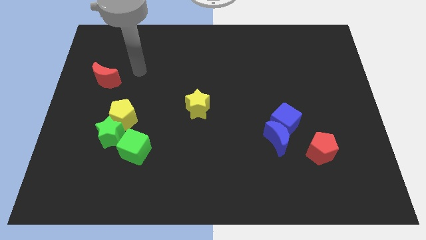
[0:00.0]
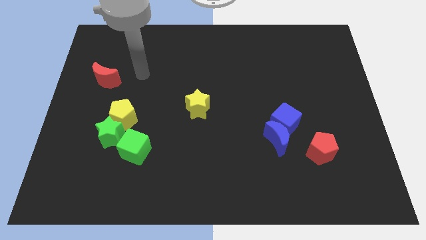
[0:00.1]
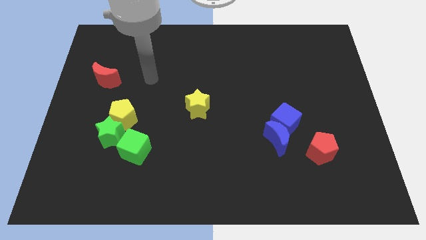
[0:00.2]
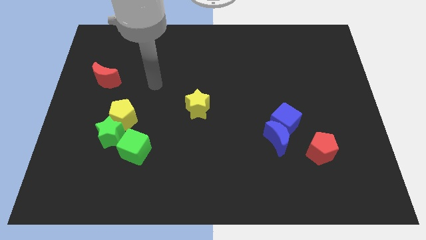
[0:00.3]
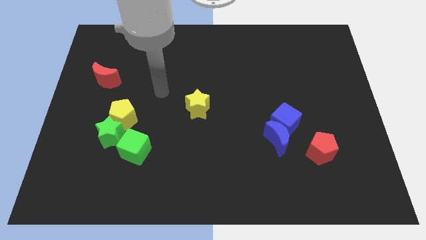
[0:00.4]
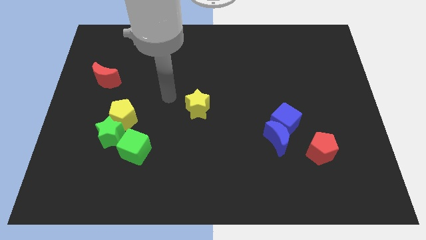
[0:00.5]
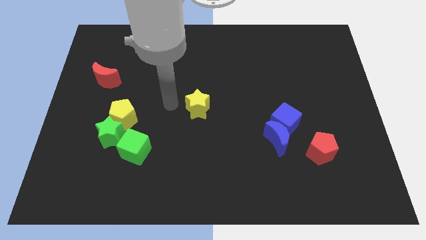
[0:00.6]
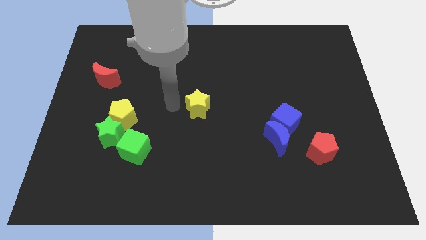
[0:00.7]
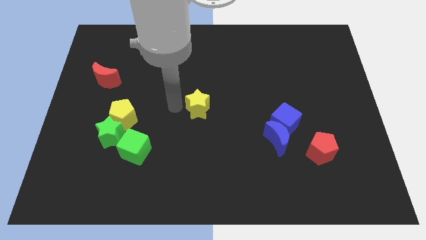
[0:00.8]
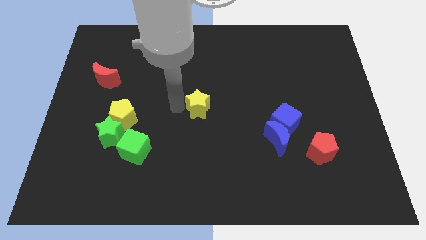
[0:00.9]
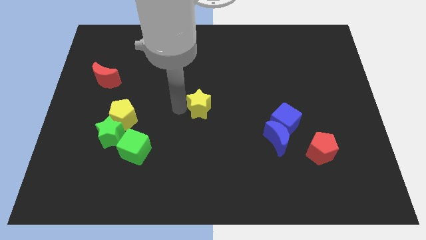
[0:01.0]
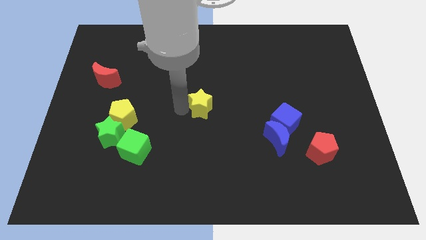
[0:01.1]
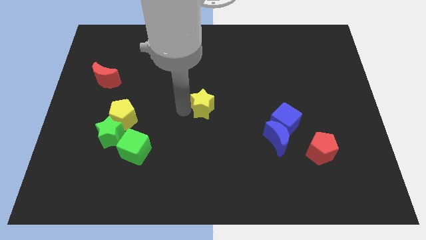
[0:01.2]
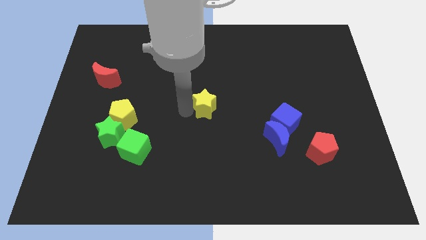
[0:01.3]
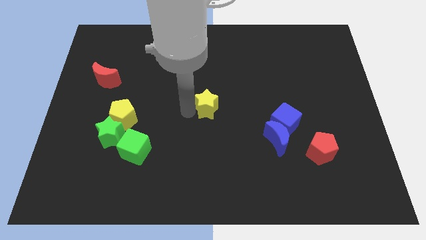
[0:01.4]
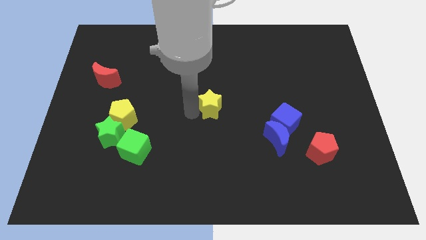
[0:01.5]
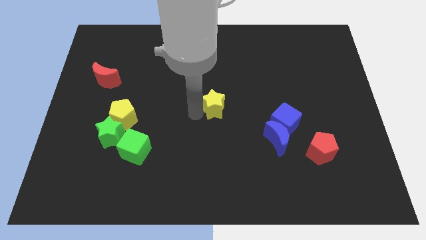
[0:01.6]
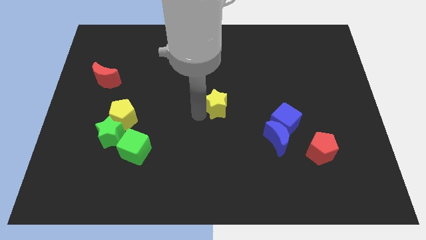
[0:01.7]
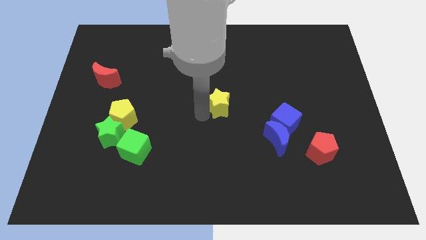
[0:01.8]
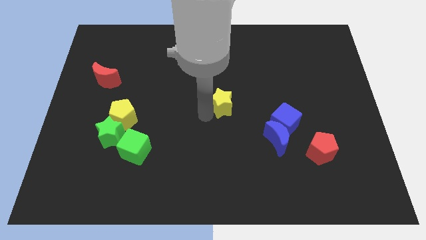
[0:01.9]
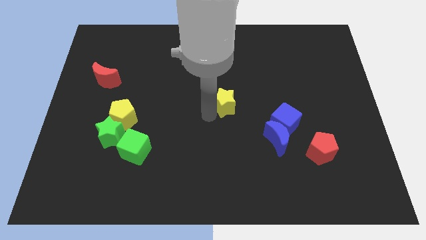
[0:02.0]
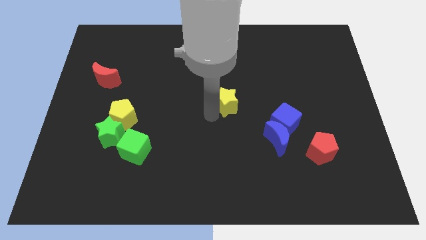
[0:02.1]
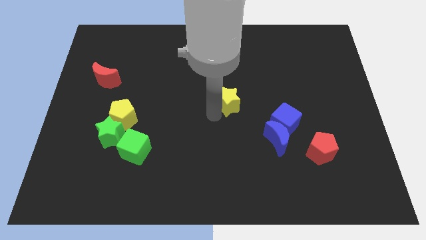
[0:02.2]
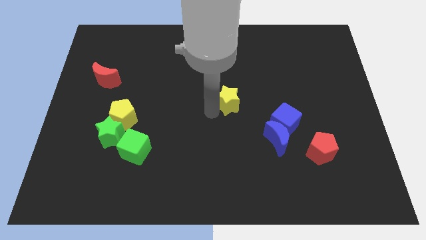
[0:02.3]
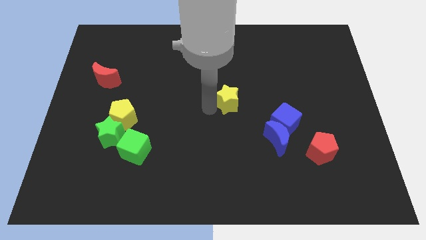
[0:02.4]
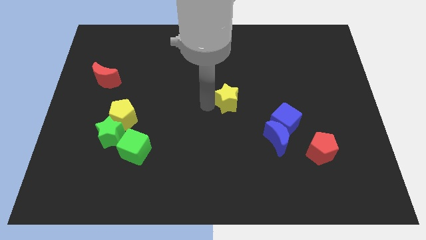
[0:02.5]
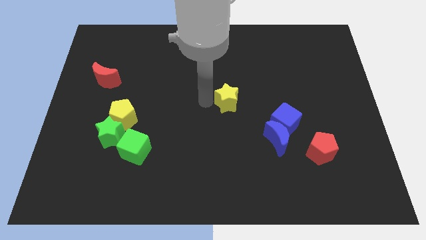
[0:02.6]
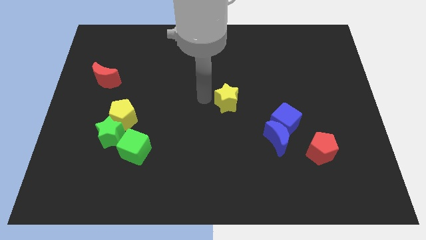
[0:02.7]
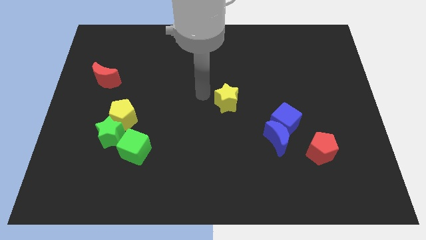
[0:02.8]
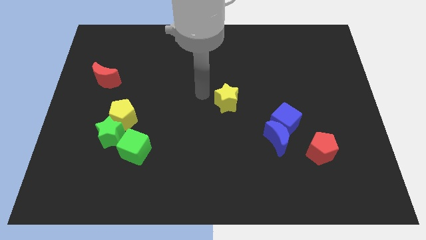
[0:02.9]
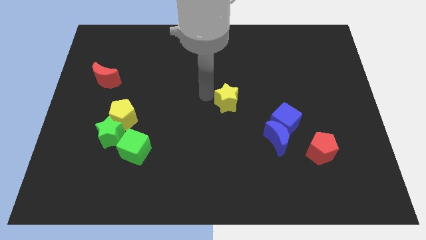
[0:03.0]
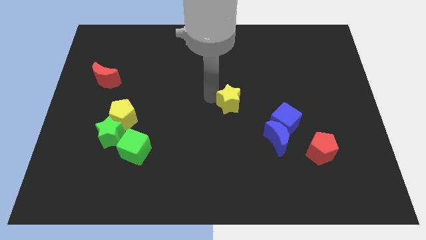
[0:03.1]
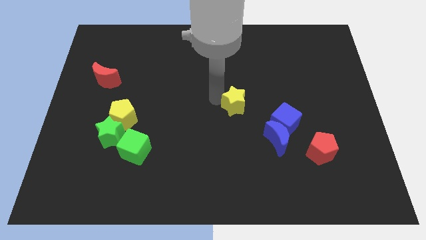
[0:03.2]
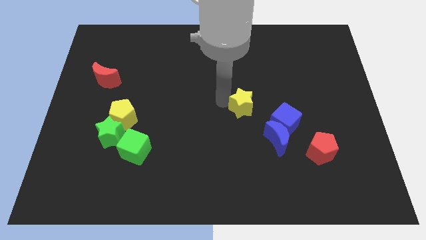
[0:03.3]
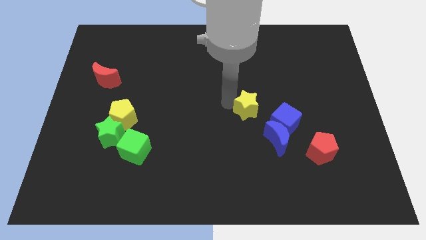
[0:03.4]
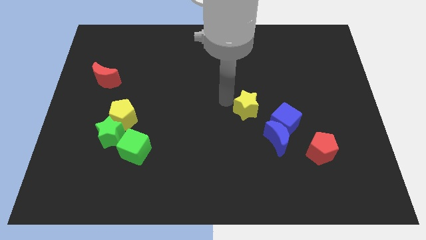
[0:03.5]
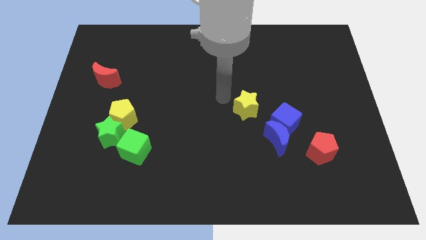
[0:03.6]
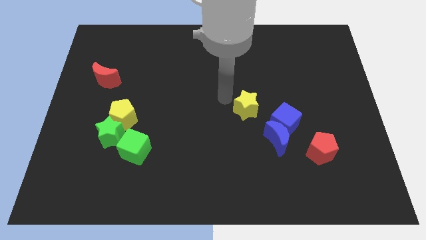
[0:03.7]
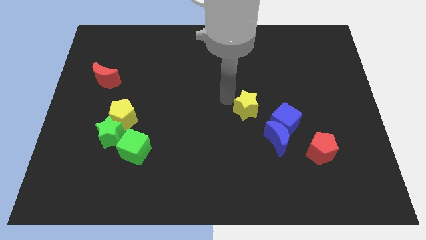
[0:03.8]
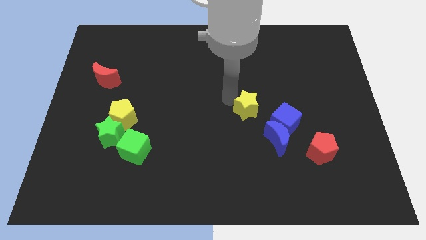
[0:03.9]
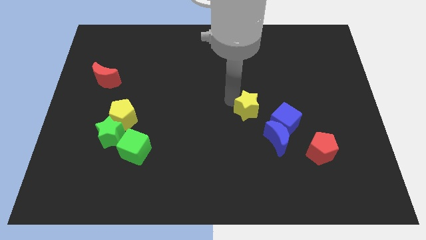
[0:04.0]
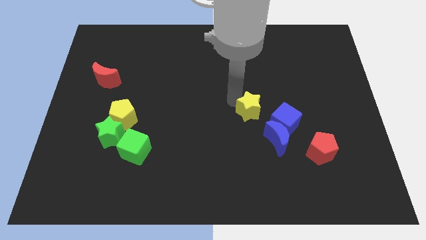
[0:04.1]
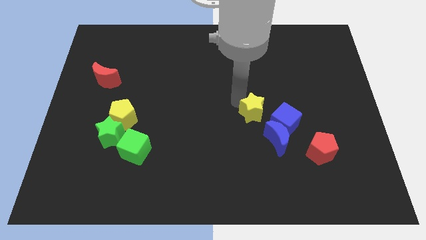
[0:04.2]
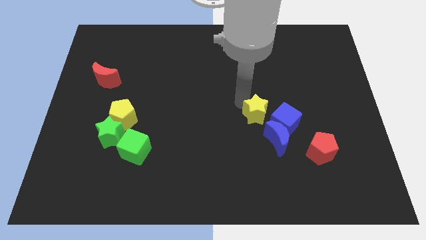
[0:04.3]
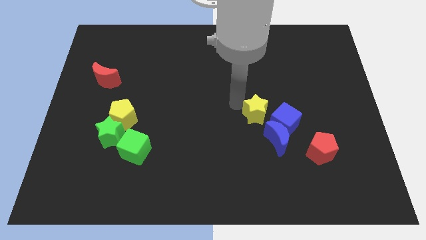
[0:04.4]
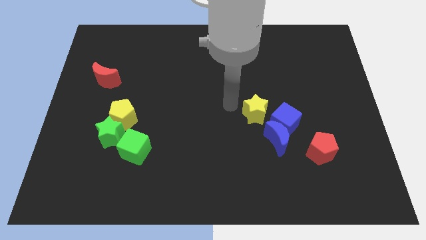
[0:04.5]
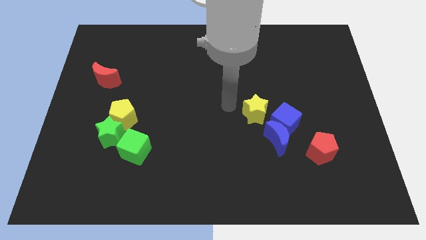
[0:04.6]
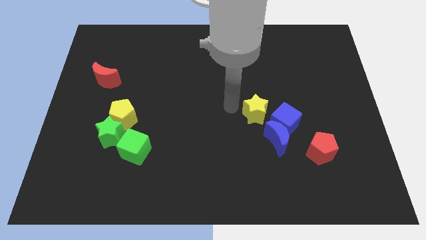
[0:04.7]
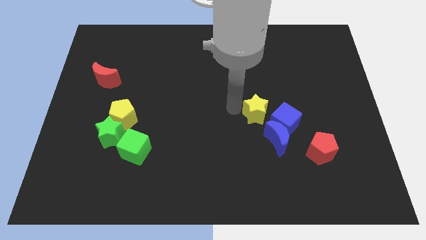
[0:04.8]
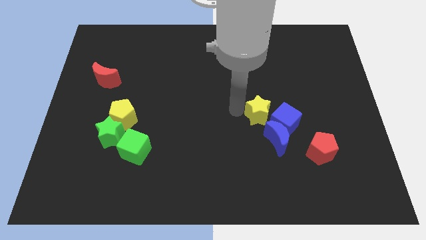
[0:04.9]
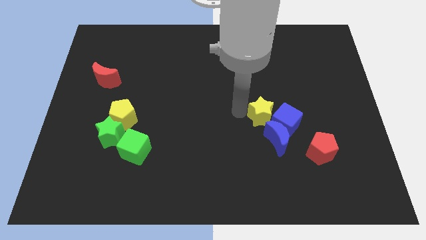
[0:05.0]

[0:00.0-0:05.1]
move the yellow star to the blue cube

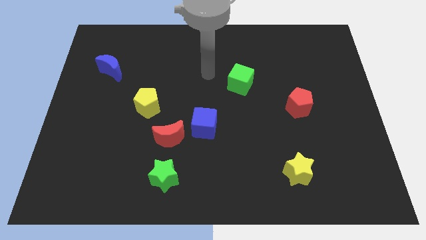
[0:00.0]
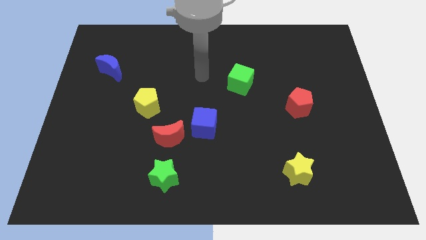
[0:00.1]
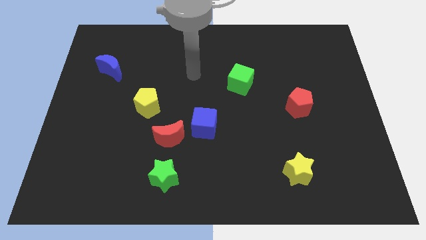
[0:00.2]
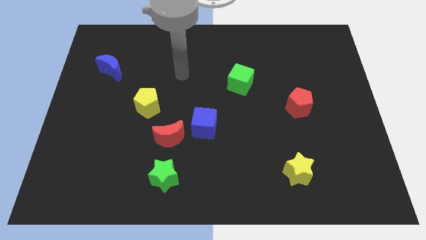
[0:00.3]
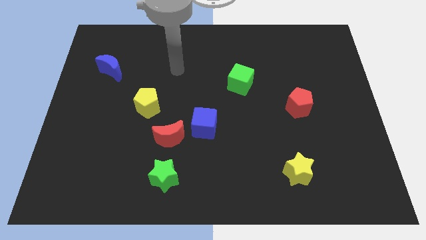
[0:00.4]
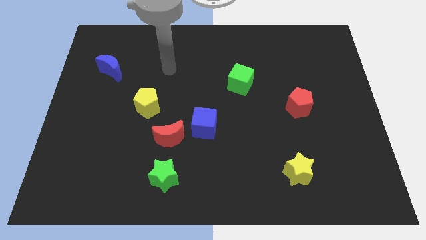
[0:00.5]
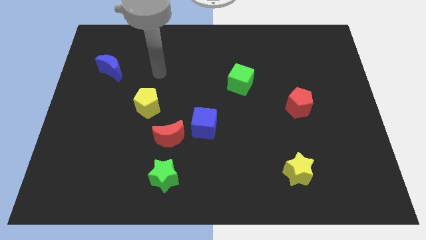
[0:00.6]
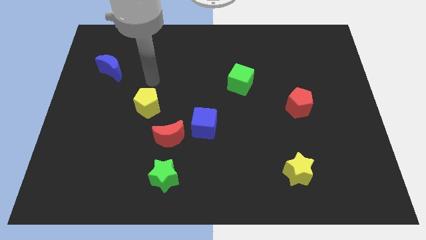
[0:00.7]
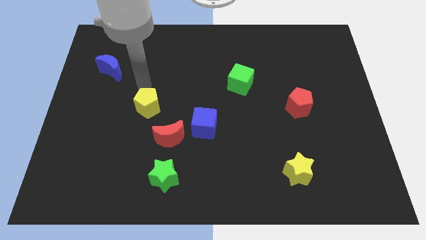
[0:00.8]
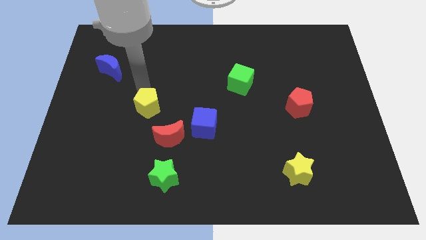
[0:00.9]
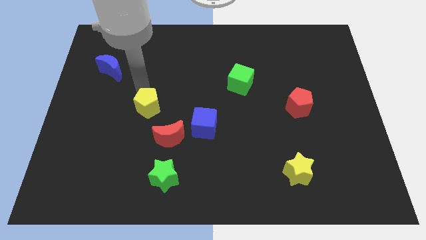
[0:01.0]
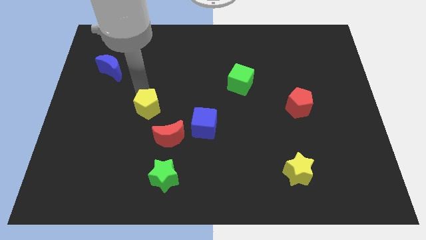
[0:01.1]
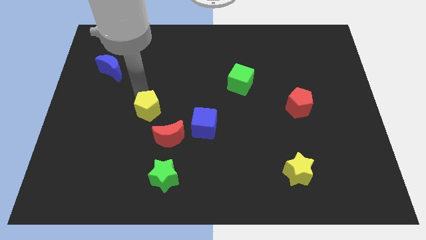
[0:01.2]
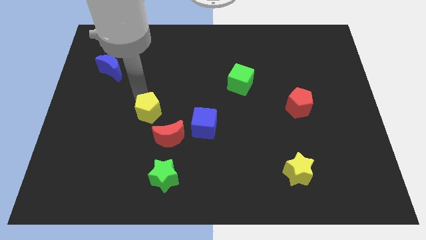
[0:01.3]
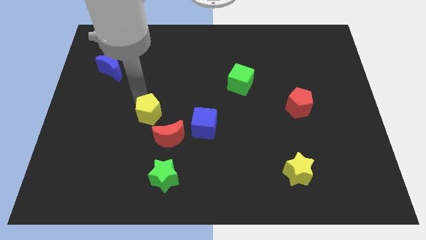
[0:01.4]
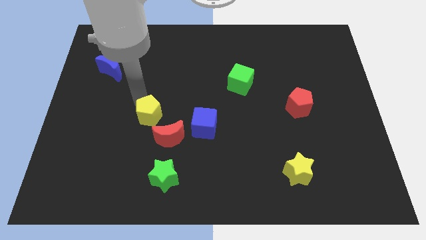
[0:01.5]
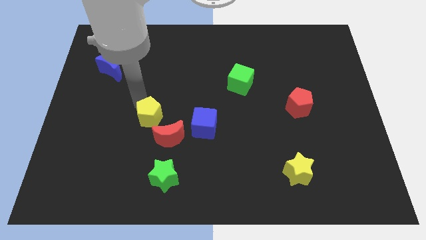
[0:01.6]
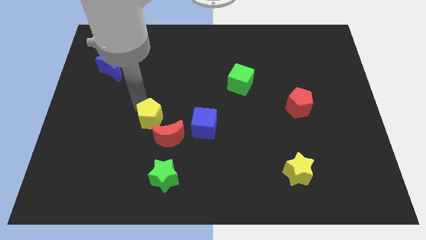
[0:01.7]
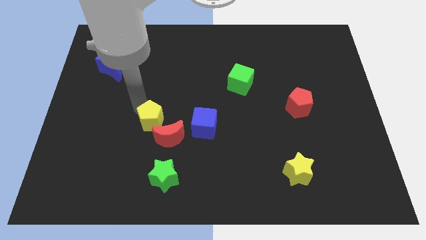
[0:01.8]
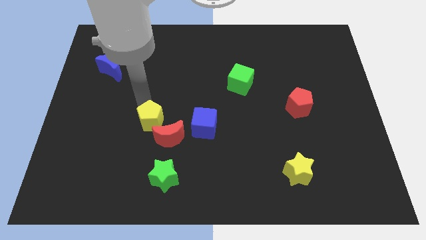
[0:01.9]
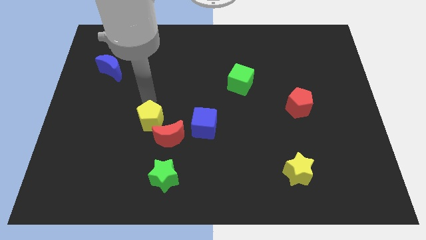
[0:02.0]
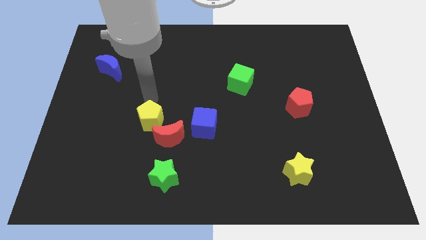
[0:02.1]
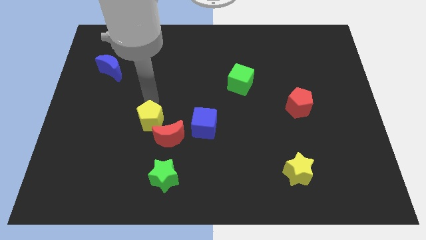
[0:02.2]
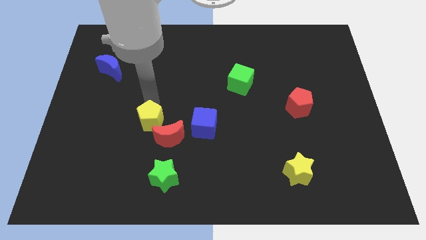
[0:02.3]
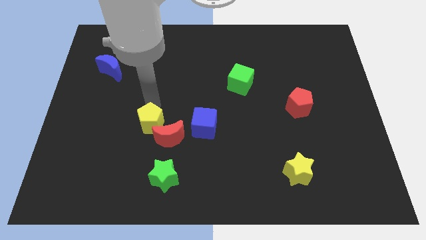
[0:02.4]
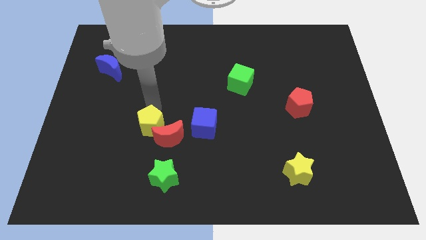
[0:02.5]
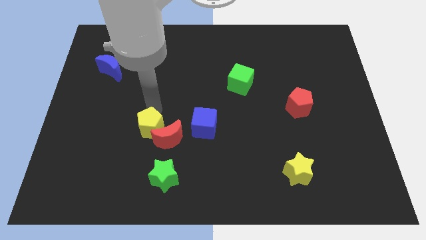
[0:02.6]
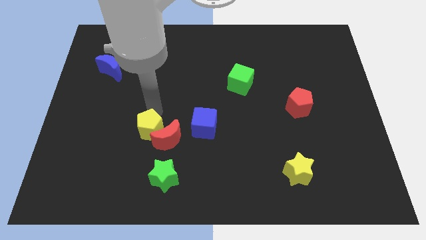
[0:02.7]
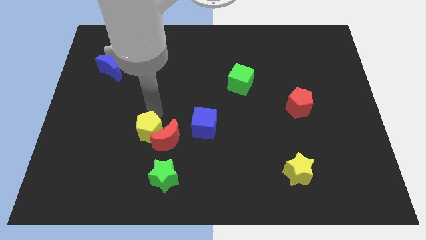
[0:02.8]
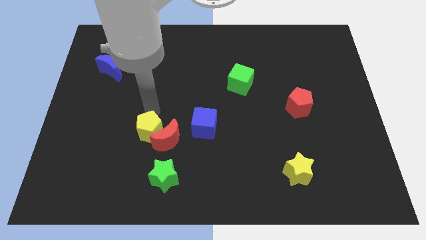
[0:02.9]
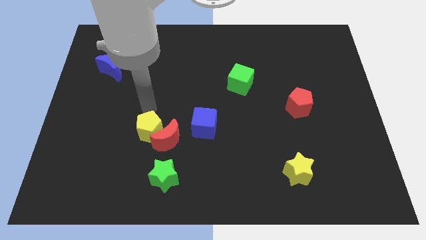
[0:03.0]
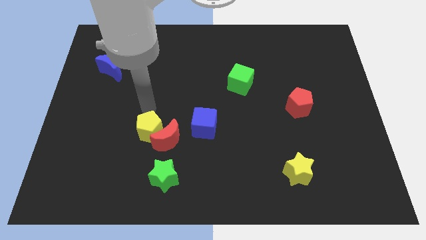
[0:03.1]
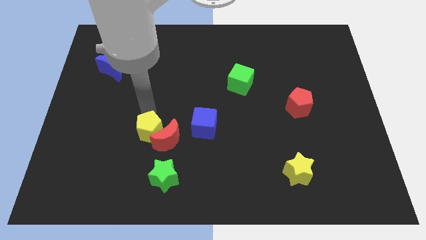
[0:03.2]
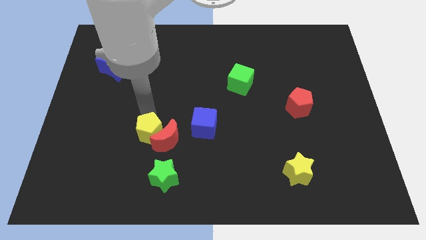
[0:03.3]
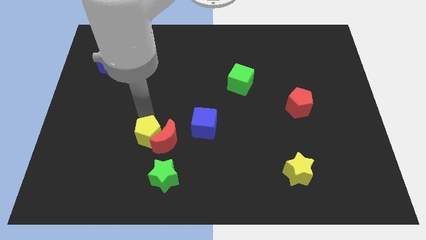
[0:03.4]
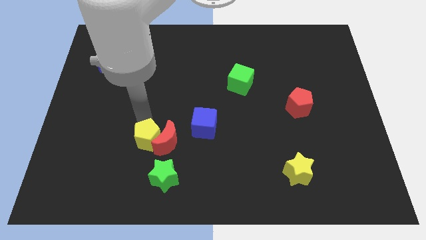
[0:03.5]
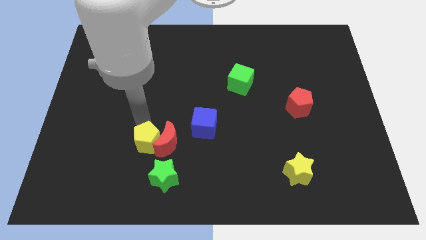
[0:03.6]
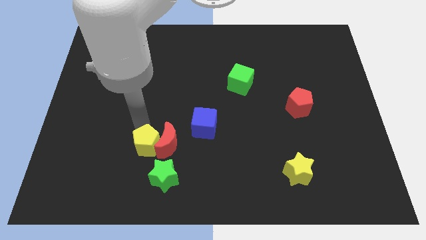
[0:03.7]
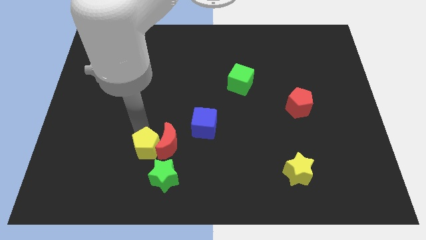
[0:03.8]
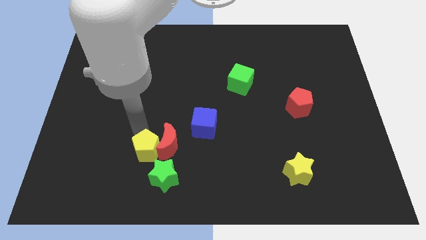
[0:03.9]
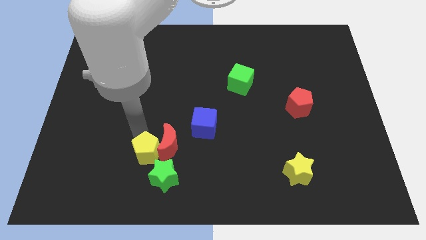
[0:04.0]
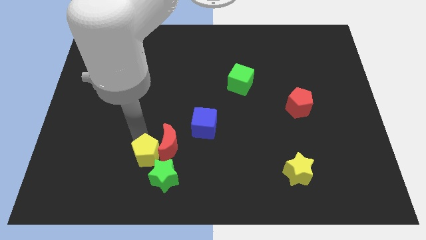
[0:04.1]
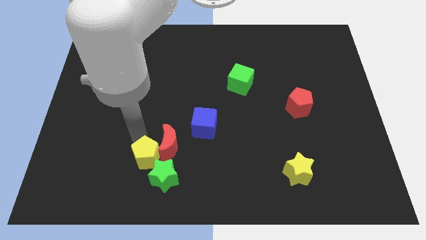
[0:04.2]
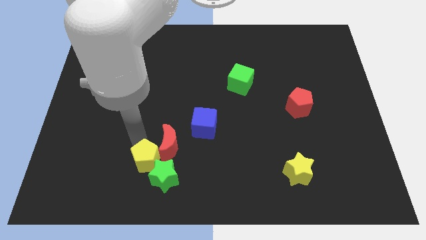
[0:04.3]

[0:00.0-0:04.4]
push the yellow pentagon to the green star
